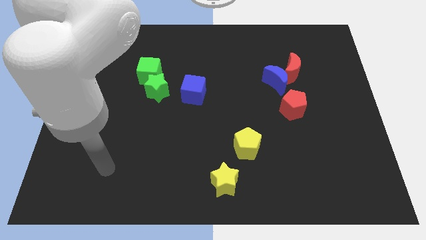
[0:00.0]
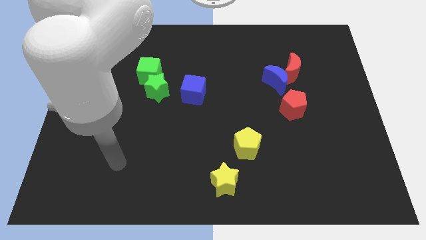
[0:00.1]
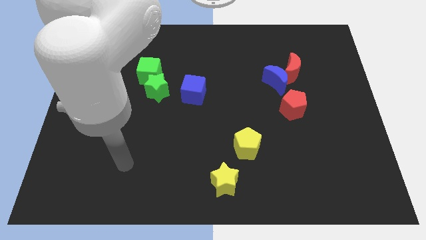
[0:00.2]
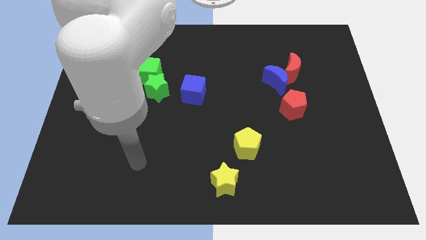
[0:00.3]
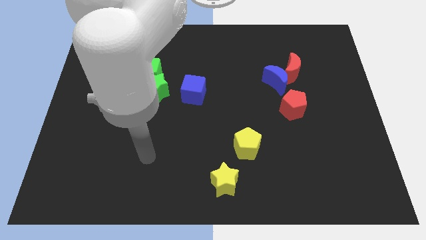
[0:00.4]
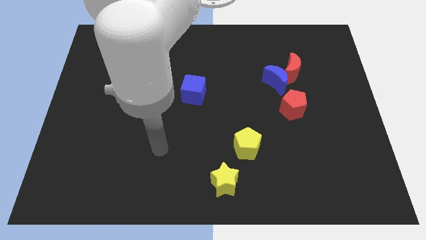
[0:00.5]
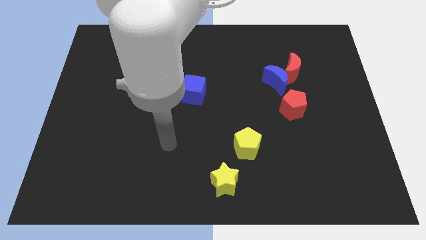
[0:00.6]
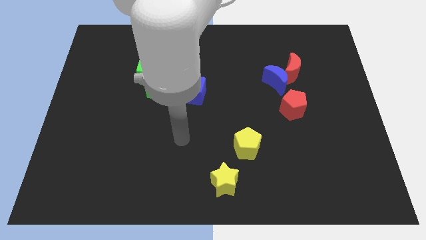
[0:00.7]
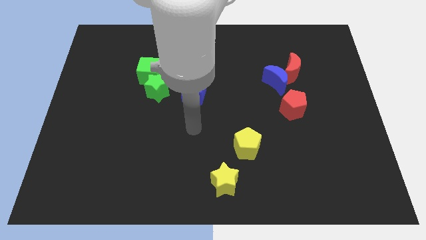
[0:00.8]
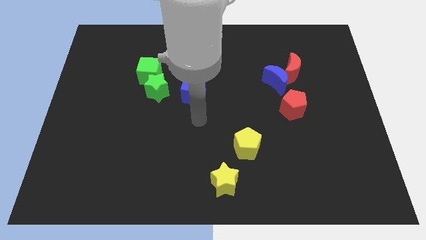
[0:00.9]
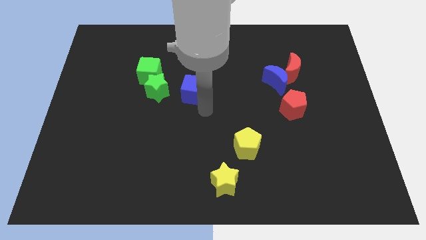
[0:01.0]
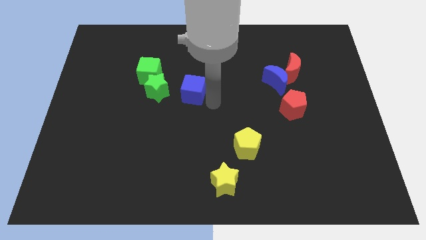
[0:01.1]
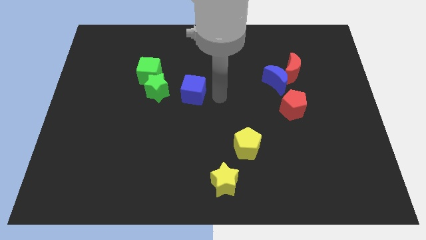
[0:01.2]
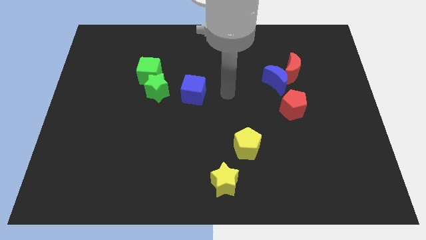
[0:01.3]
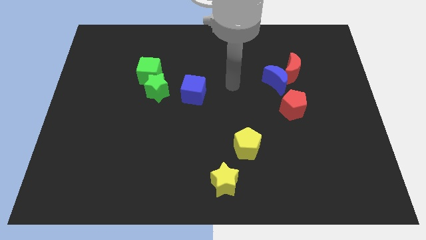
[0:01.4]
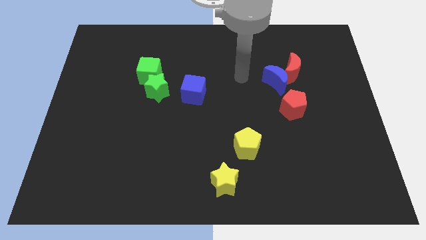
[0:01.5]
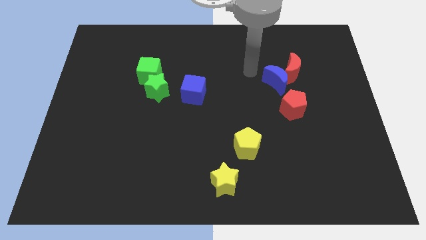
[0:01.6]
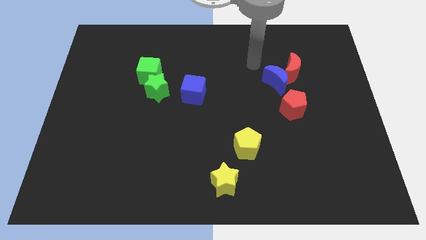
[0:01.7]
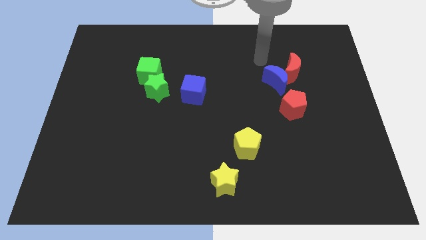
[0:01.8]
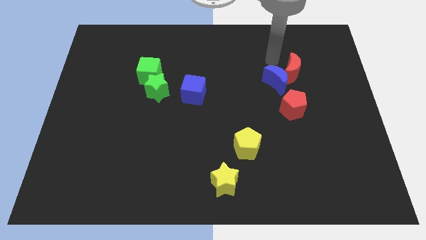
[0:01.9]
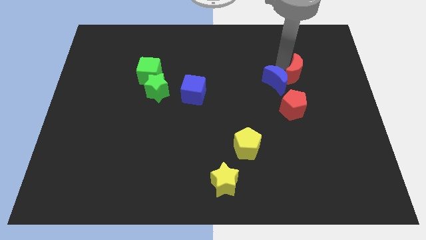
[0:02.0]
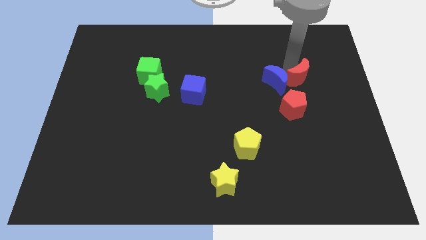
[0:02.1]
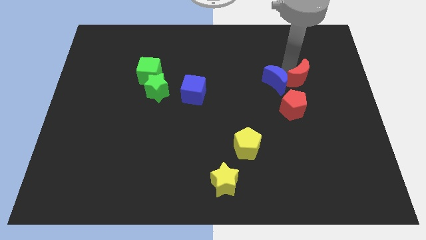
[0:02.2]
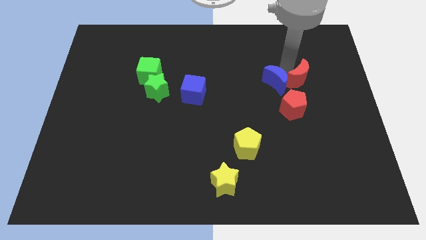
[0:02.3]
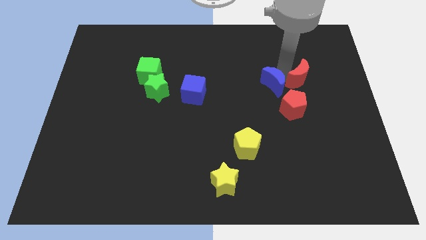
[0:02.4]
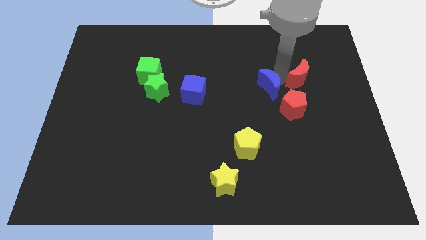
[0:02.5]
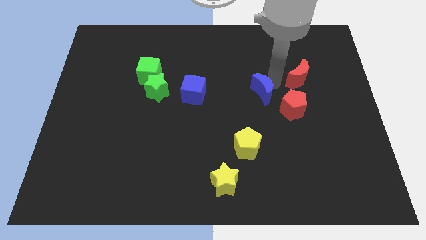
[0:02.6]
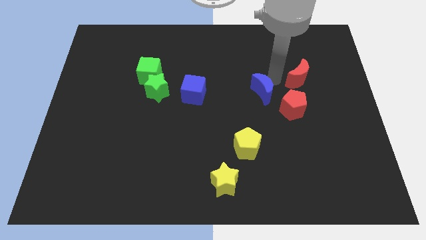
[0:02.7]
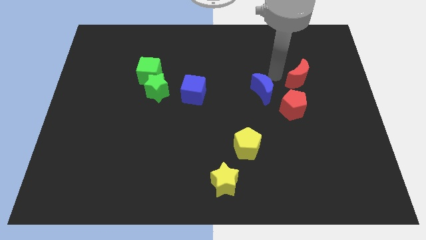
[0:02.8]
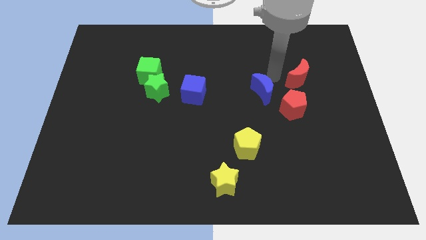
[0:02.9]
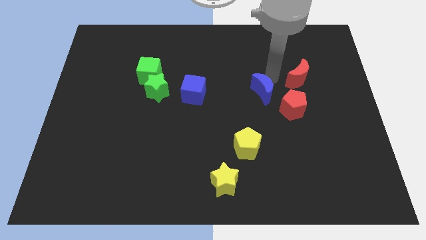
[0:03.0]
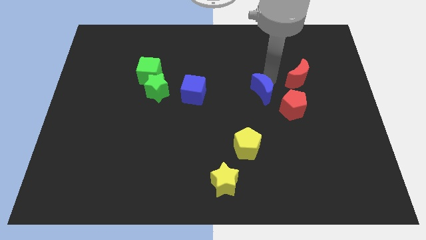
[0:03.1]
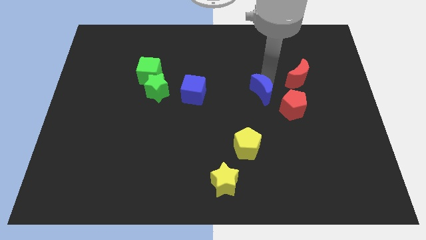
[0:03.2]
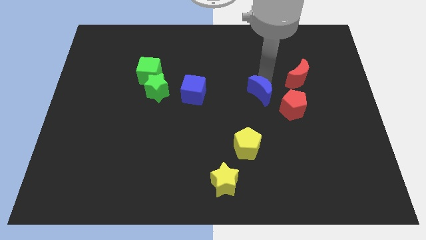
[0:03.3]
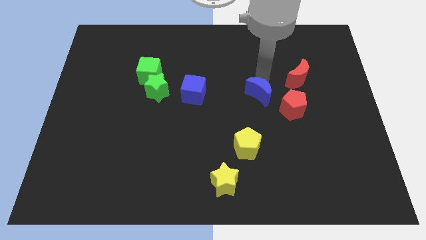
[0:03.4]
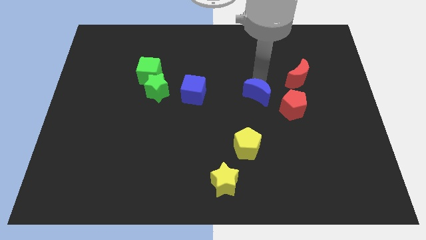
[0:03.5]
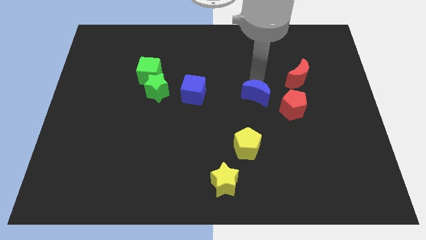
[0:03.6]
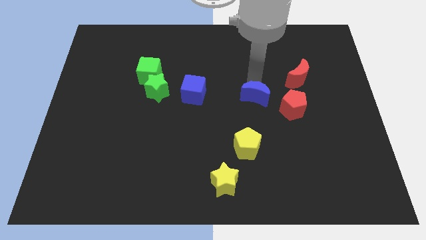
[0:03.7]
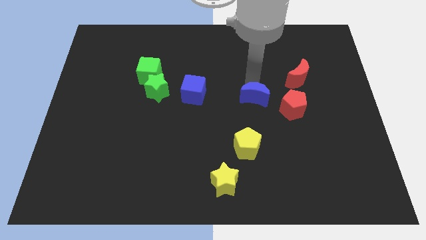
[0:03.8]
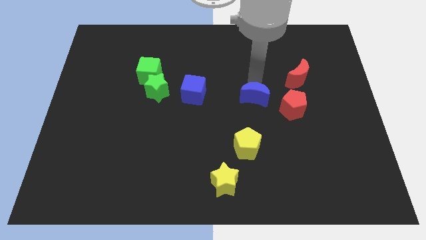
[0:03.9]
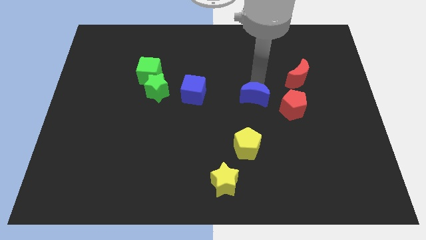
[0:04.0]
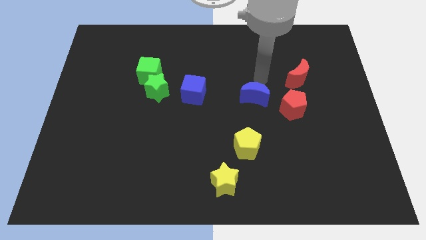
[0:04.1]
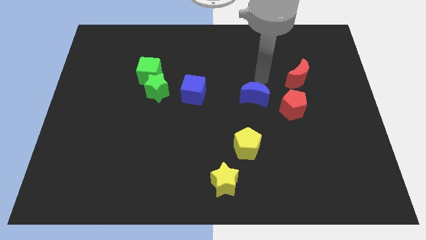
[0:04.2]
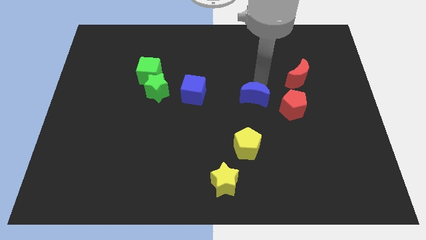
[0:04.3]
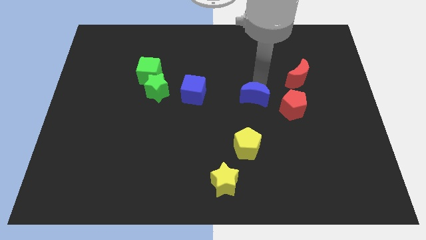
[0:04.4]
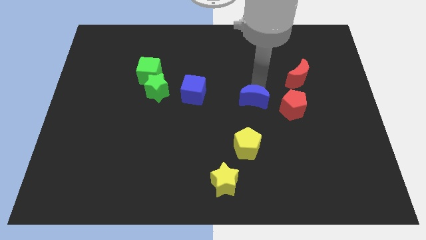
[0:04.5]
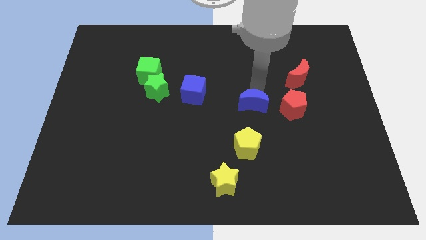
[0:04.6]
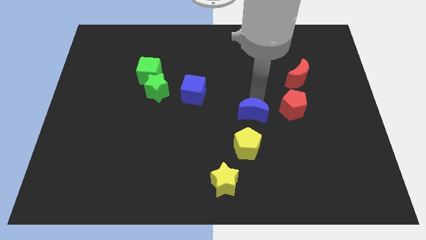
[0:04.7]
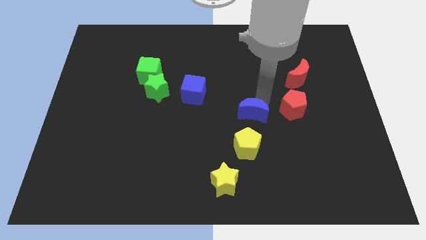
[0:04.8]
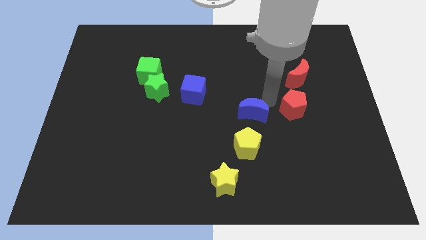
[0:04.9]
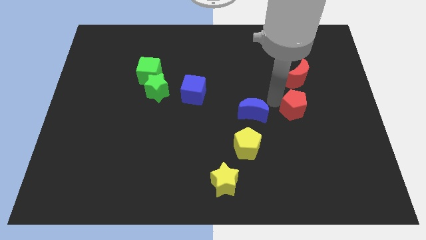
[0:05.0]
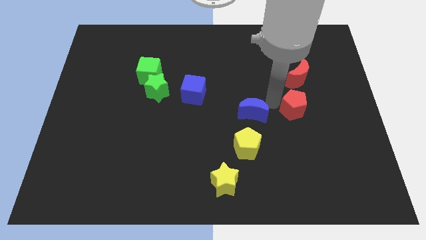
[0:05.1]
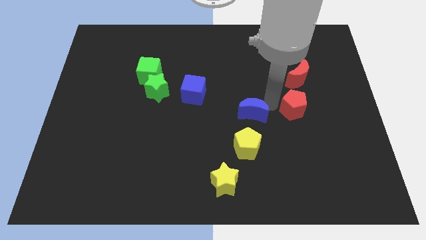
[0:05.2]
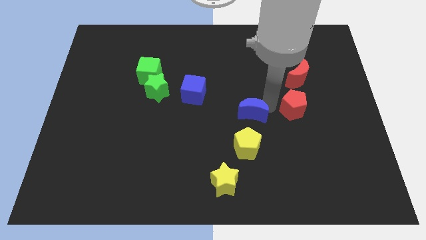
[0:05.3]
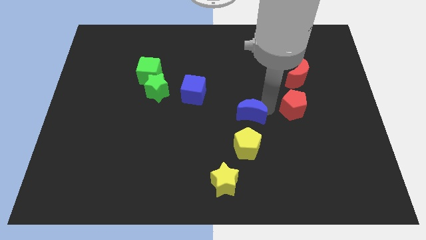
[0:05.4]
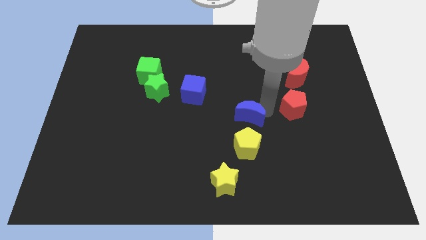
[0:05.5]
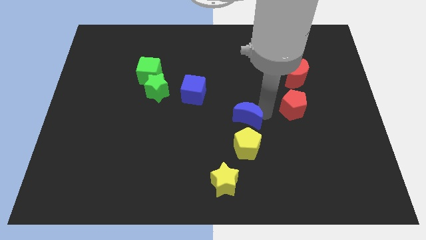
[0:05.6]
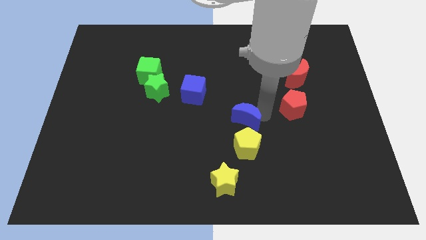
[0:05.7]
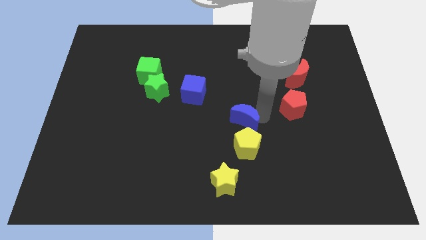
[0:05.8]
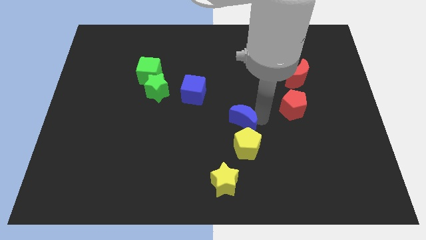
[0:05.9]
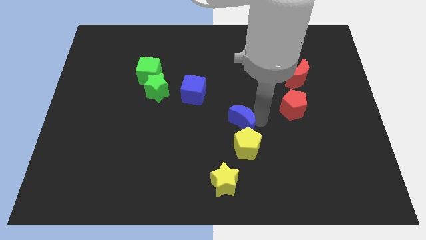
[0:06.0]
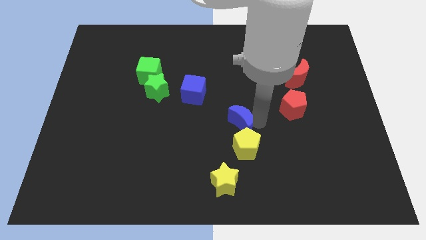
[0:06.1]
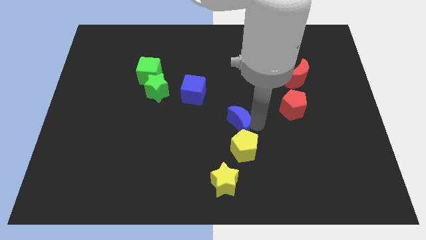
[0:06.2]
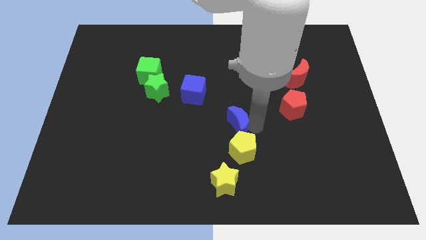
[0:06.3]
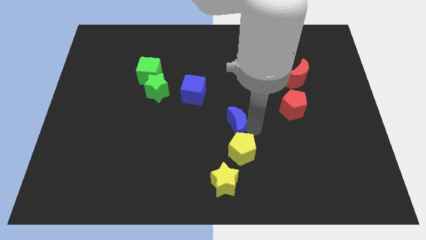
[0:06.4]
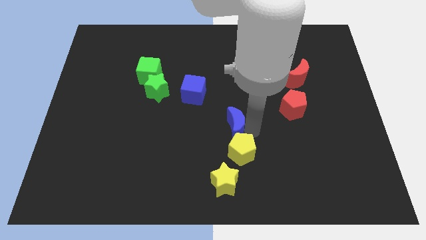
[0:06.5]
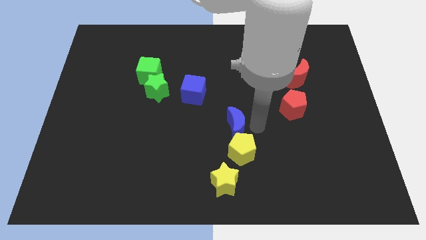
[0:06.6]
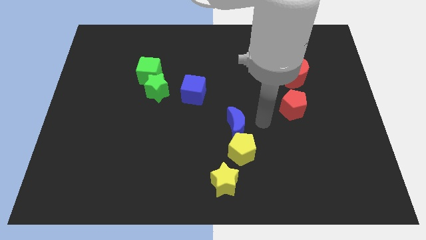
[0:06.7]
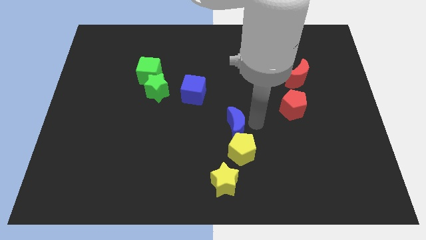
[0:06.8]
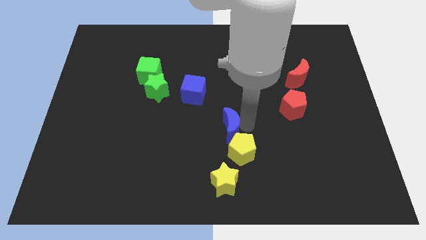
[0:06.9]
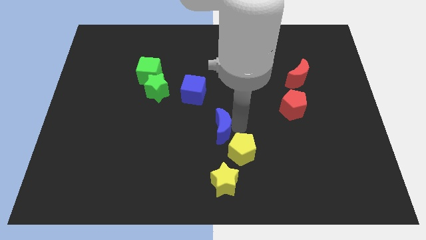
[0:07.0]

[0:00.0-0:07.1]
move the blue moon downwards and then left

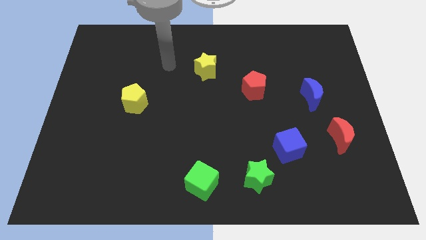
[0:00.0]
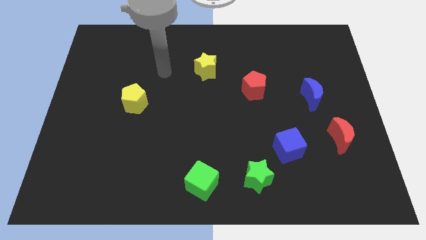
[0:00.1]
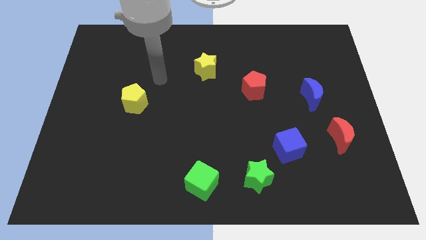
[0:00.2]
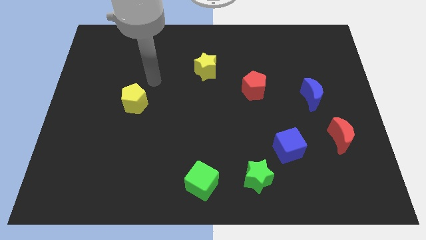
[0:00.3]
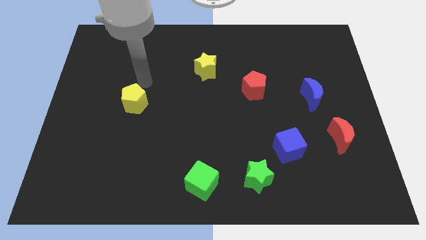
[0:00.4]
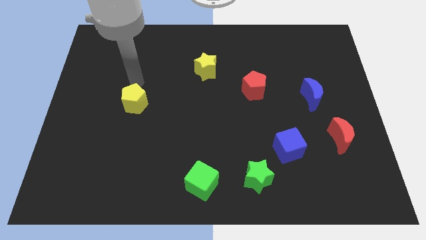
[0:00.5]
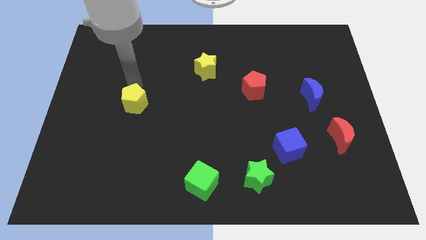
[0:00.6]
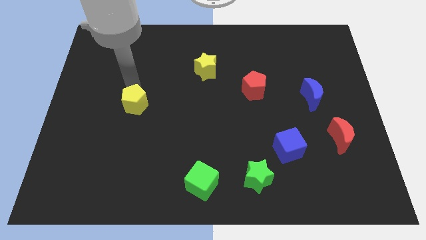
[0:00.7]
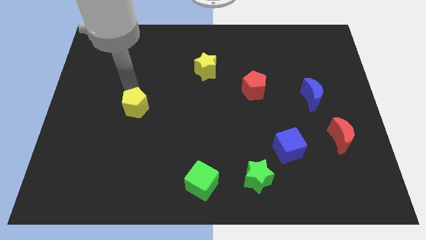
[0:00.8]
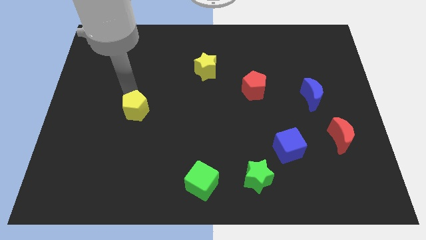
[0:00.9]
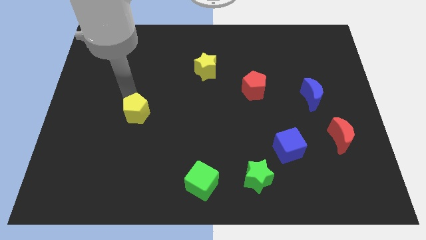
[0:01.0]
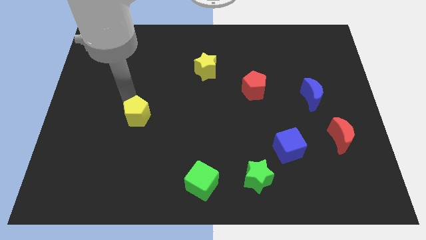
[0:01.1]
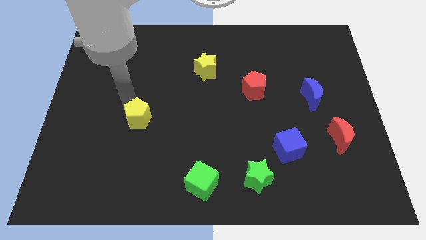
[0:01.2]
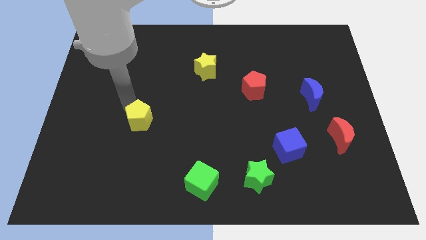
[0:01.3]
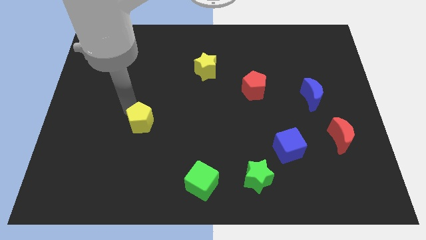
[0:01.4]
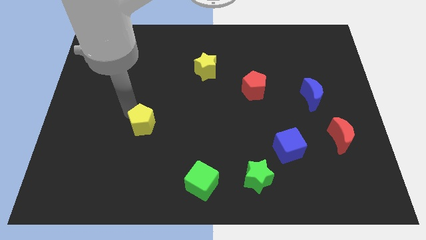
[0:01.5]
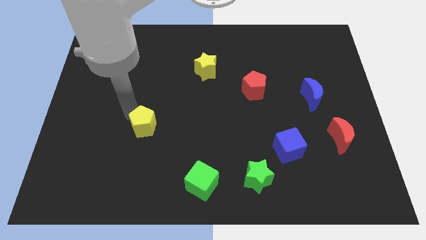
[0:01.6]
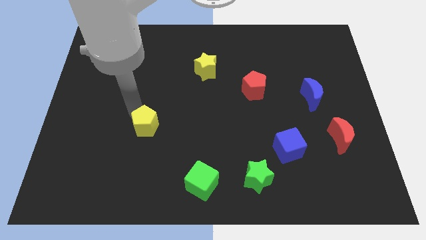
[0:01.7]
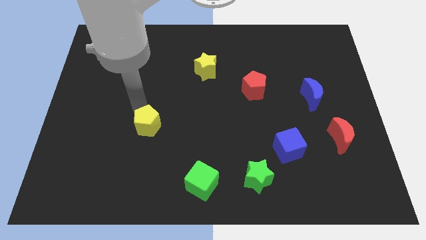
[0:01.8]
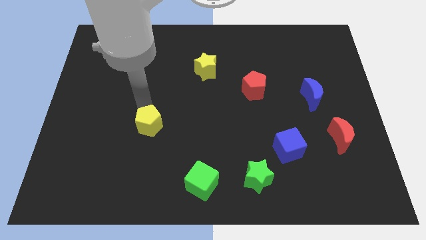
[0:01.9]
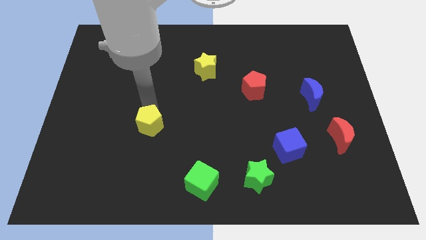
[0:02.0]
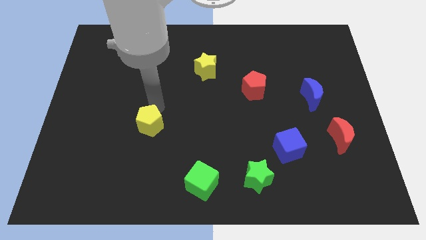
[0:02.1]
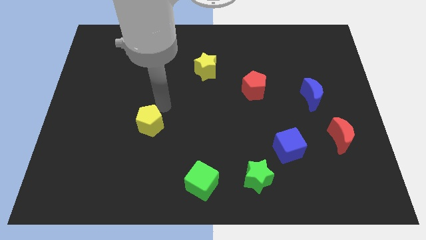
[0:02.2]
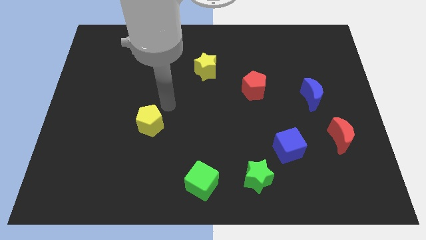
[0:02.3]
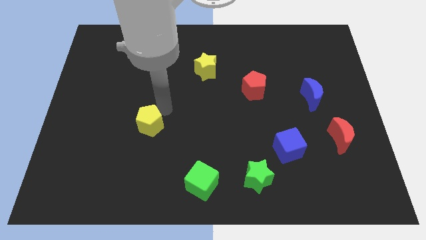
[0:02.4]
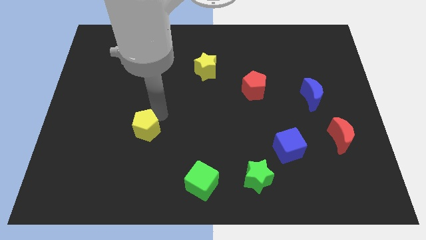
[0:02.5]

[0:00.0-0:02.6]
slide the yellow pentagon down a little bit
